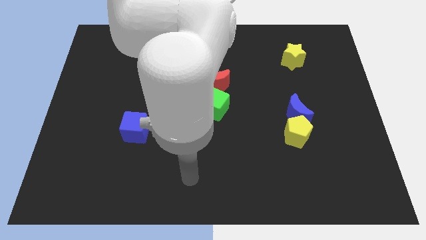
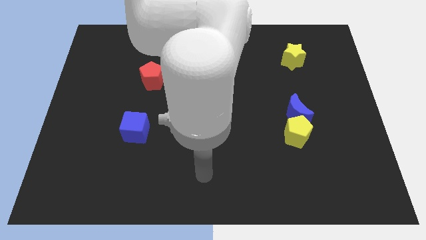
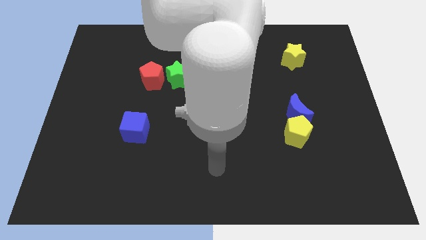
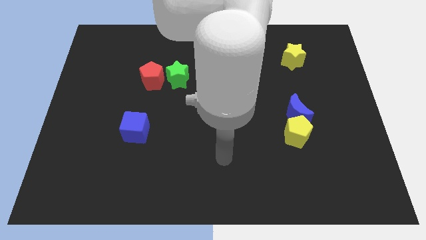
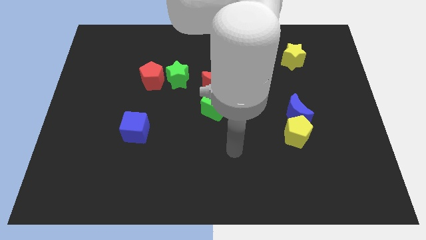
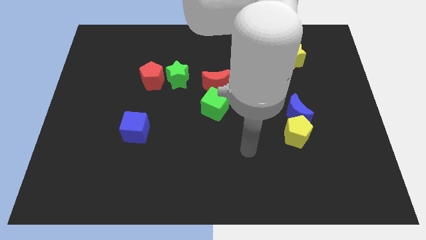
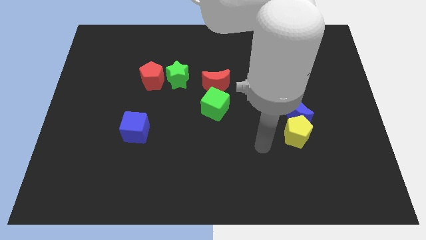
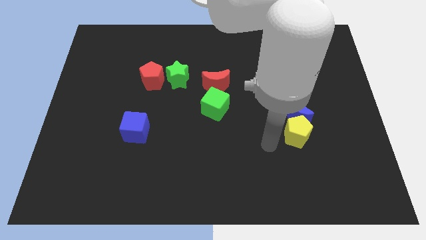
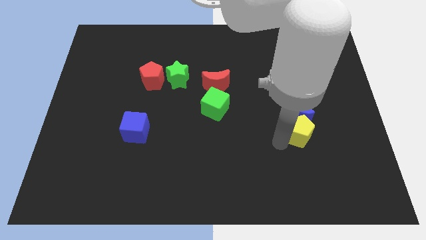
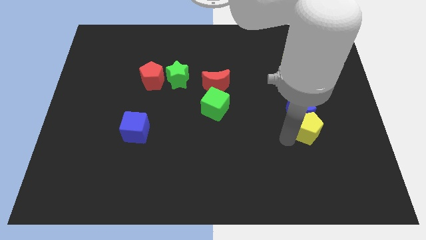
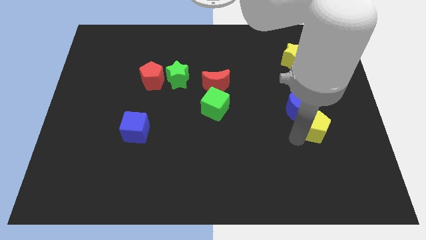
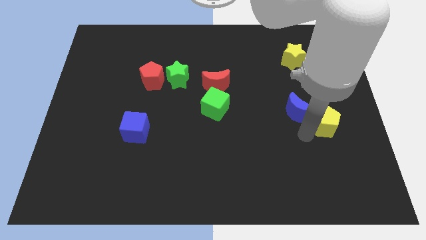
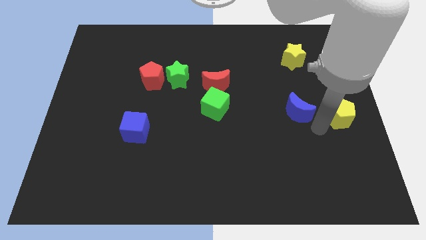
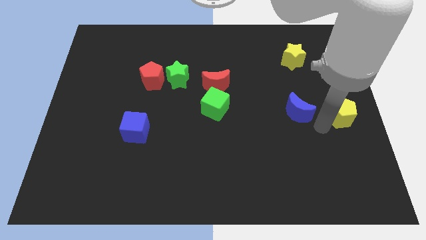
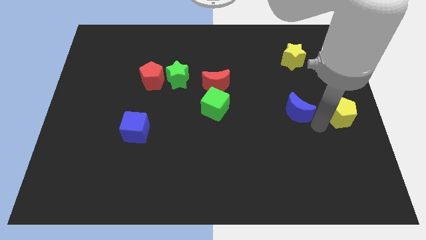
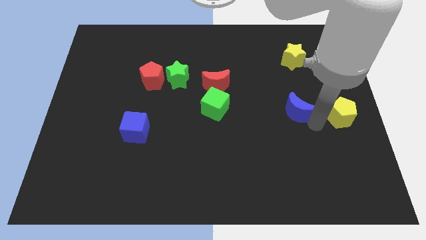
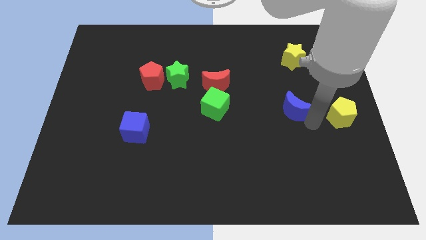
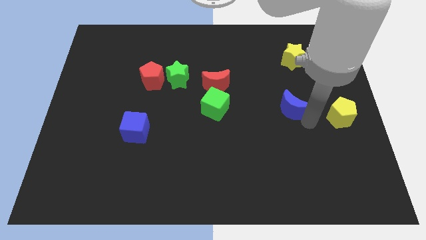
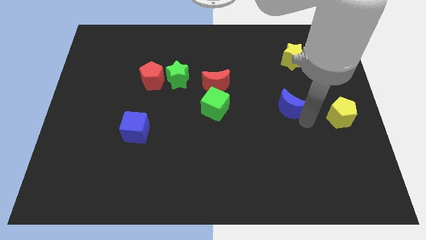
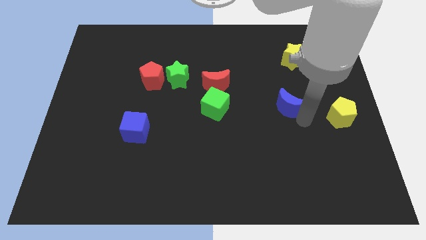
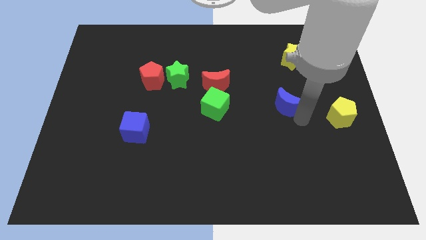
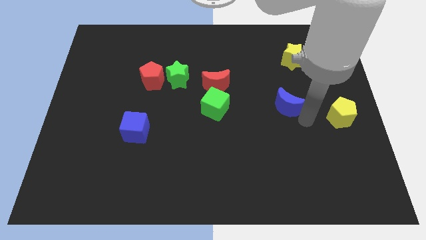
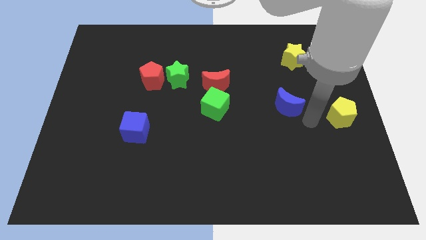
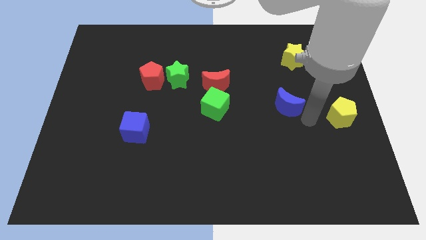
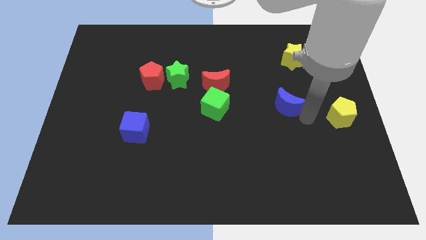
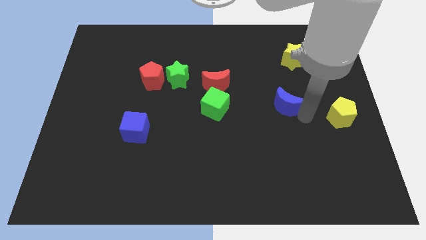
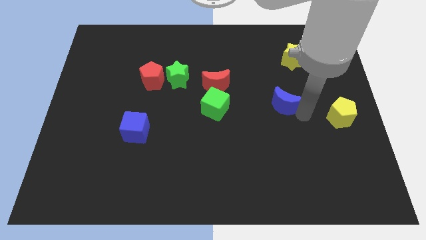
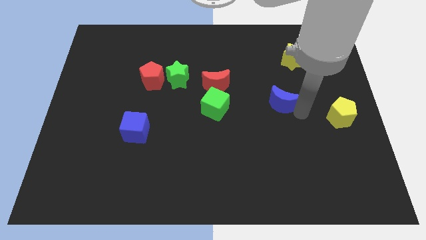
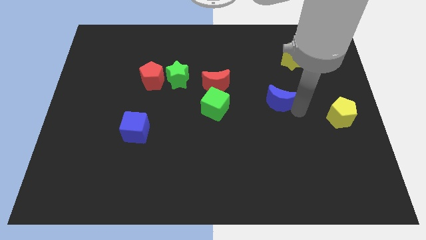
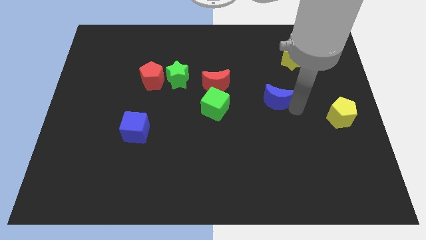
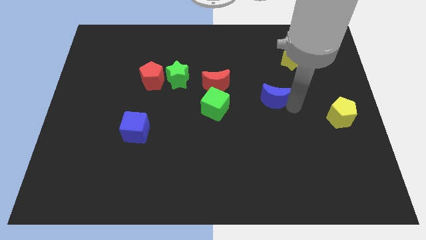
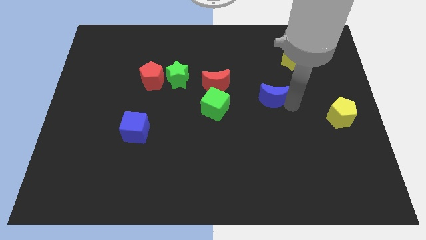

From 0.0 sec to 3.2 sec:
move the blue moon slightly upwards and then left

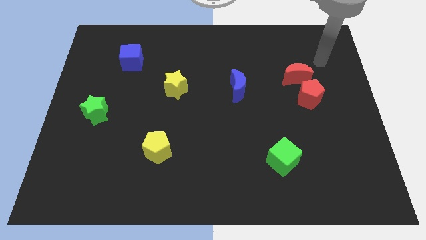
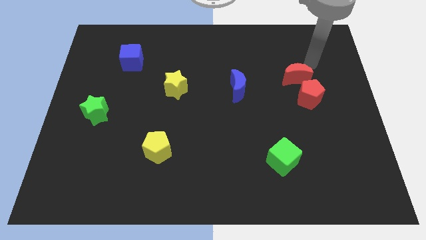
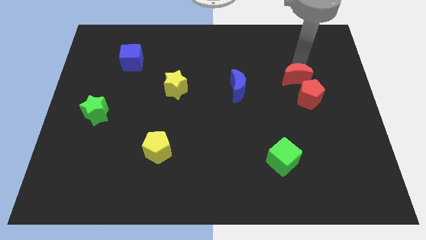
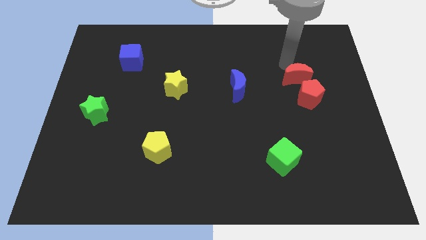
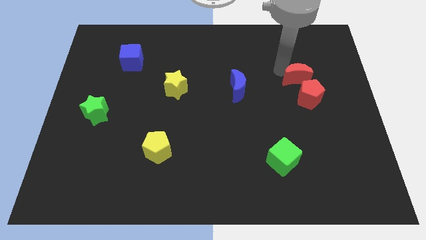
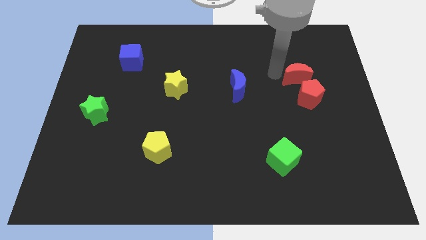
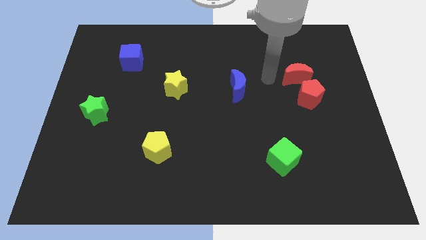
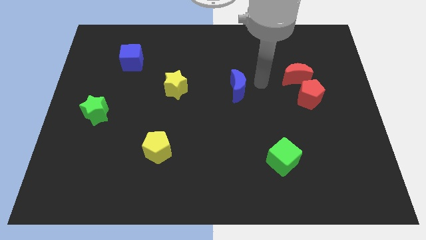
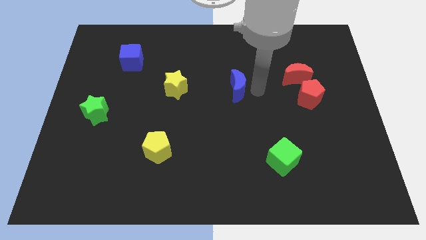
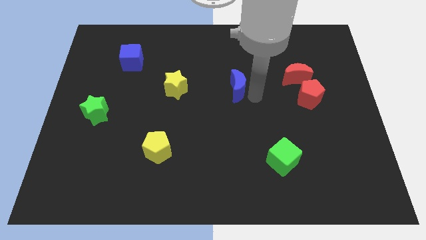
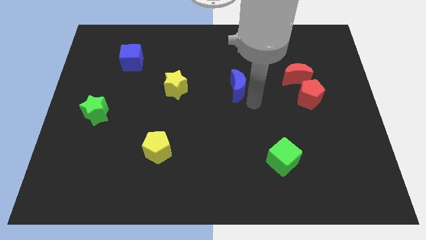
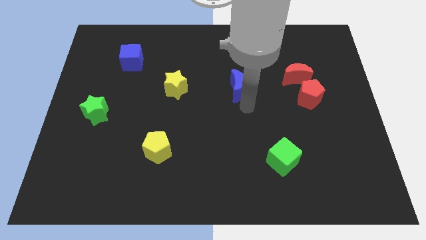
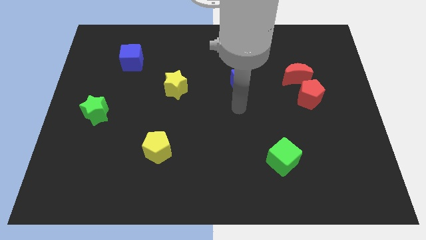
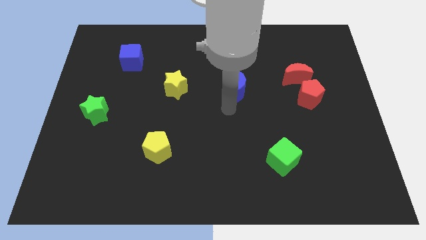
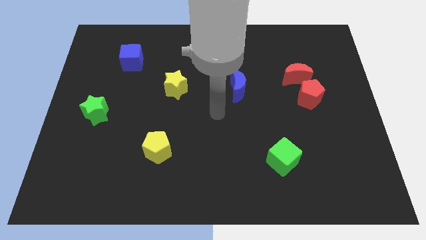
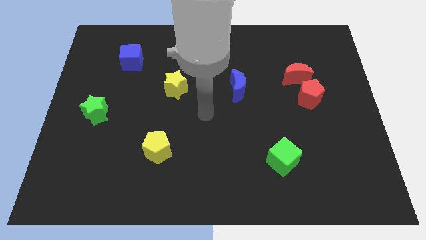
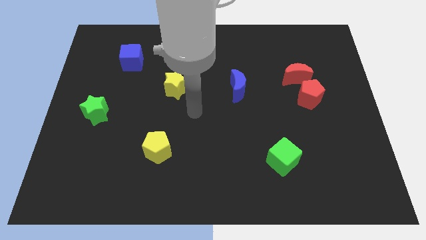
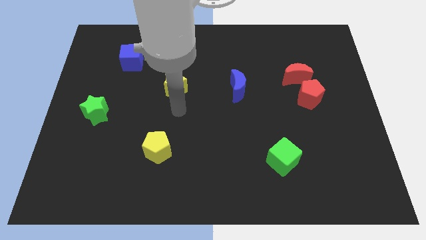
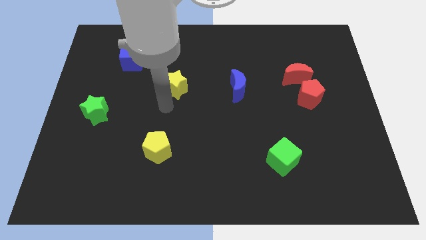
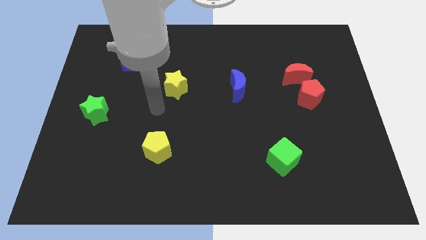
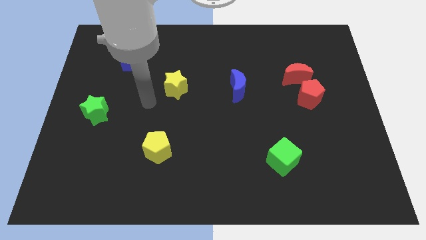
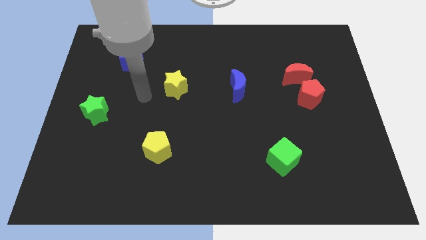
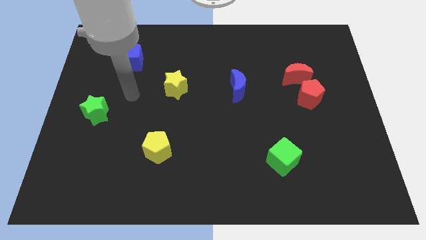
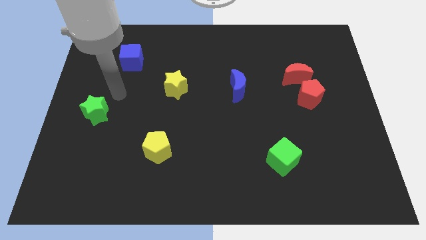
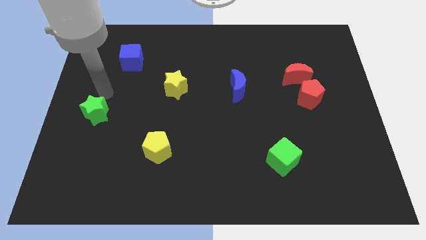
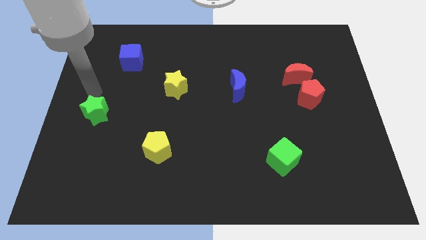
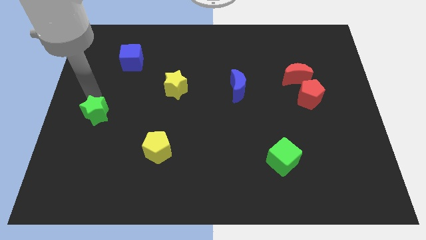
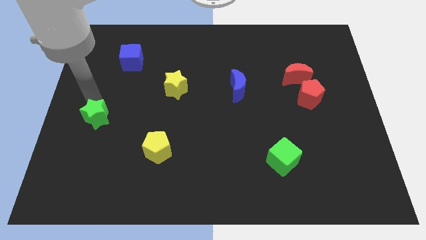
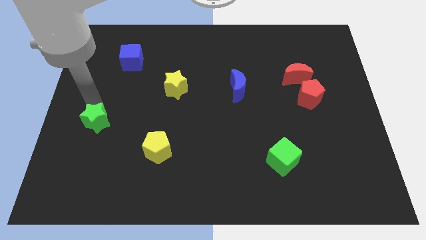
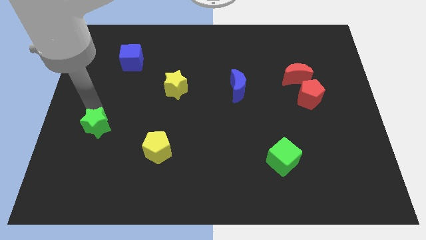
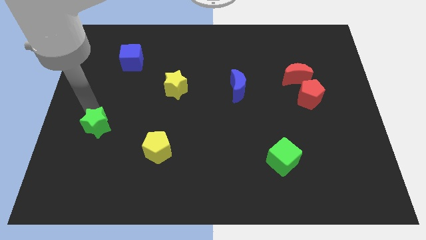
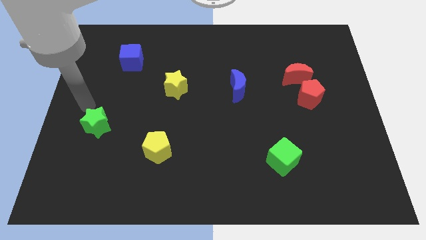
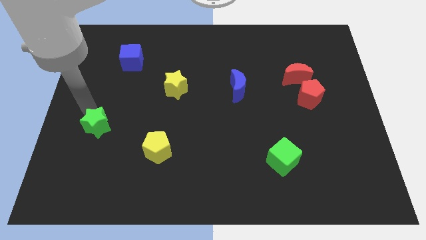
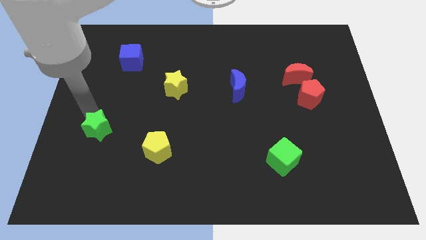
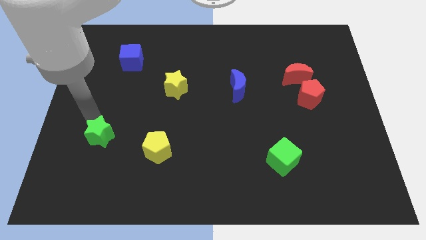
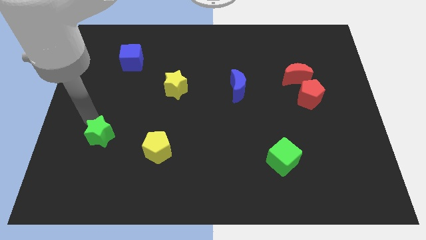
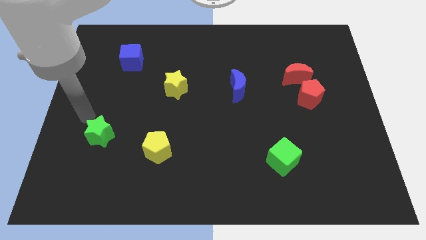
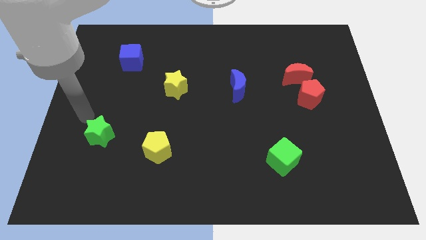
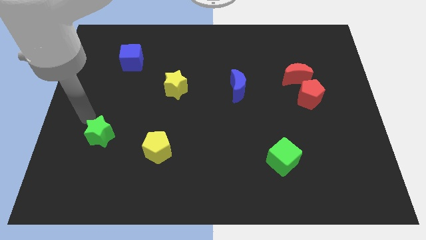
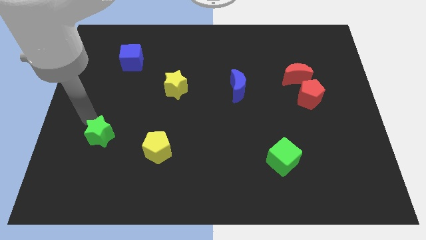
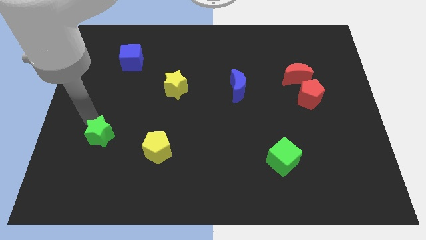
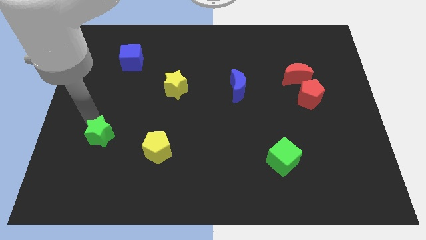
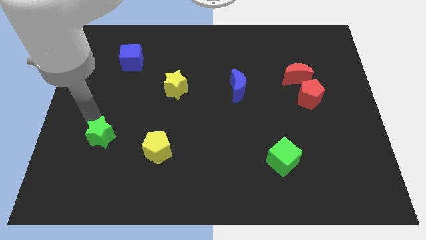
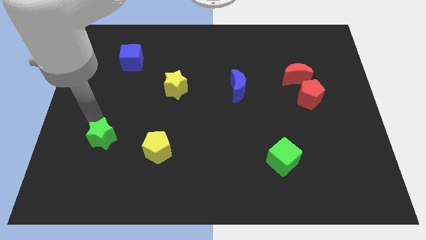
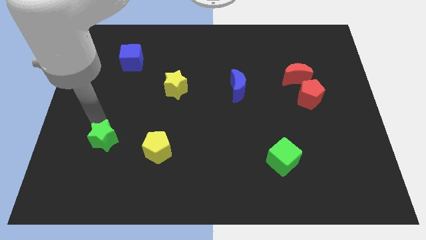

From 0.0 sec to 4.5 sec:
push the green star slightly down and right
